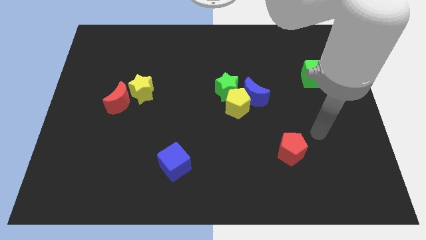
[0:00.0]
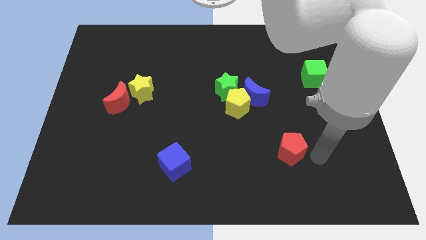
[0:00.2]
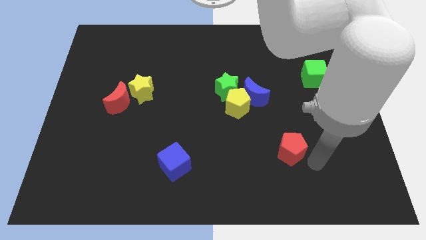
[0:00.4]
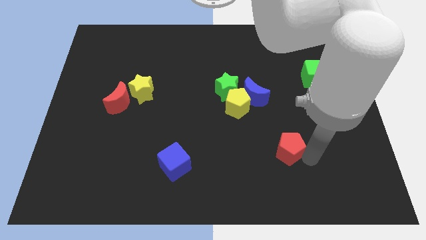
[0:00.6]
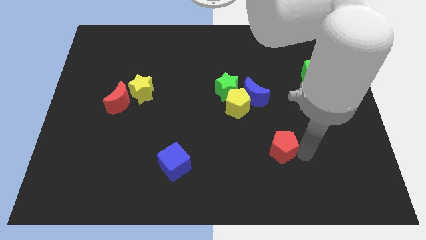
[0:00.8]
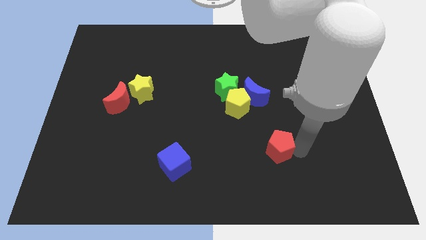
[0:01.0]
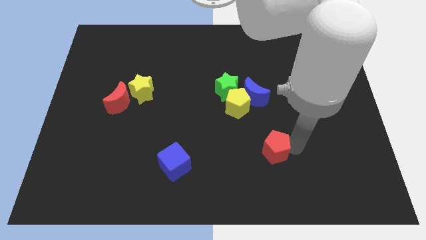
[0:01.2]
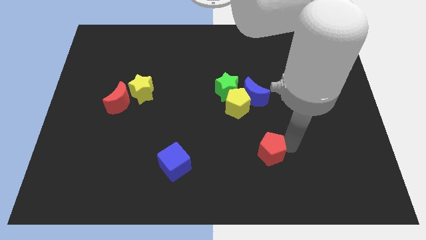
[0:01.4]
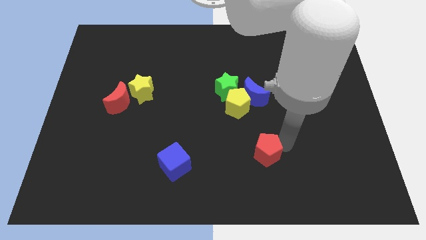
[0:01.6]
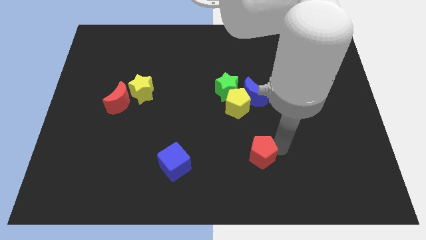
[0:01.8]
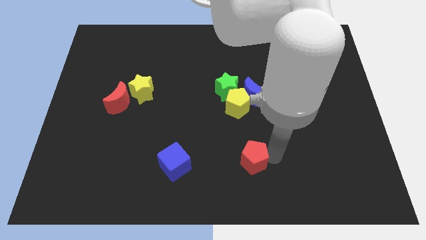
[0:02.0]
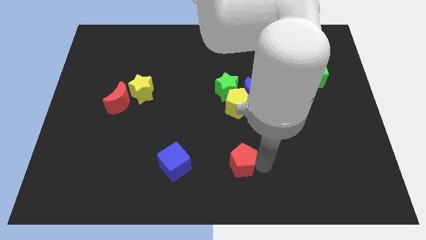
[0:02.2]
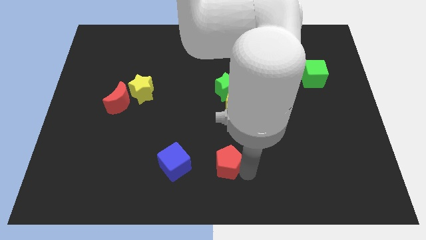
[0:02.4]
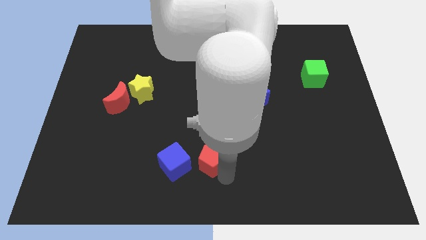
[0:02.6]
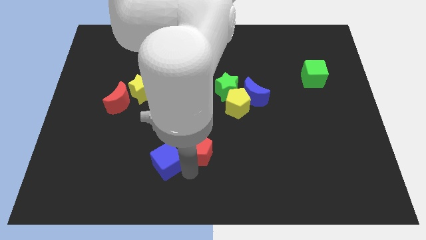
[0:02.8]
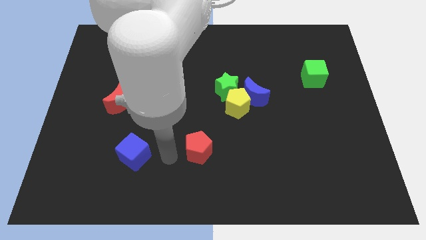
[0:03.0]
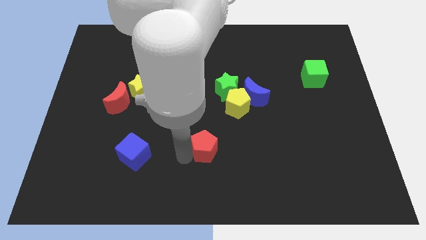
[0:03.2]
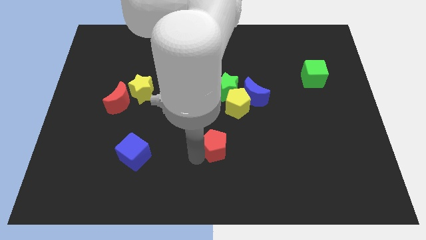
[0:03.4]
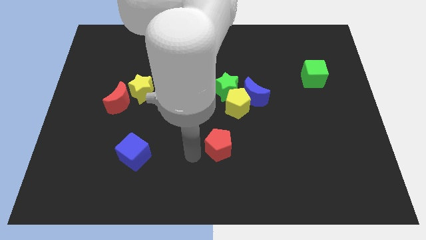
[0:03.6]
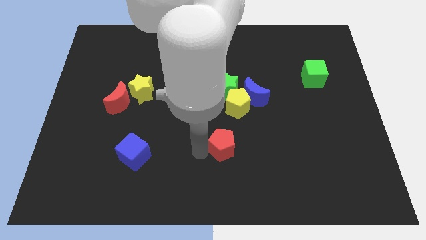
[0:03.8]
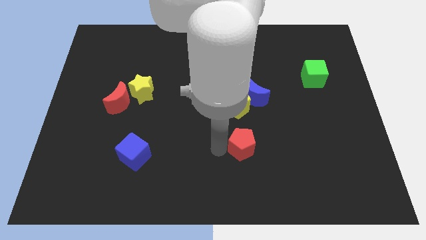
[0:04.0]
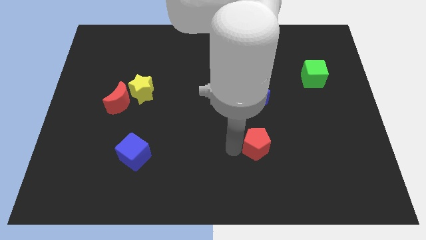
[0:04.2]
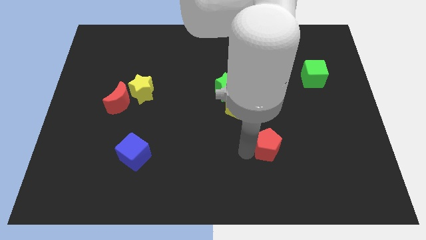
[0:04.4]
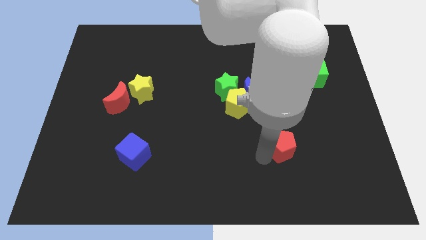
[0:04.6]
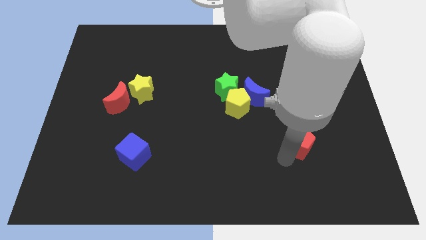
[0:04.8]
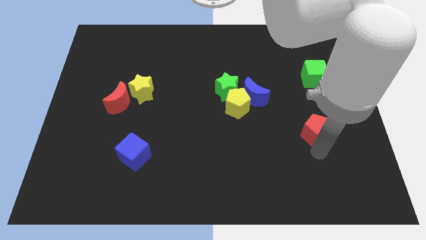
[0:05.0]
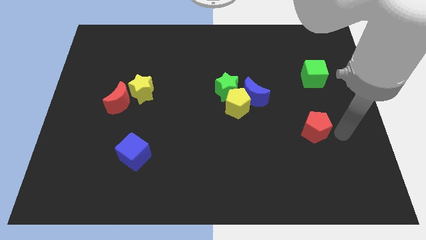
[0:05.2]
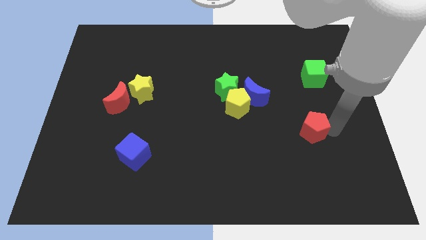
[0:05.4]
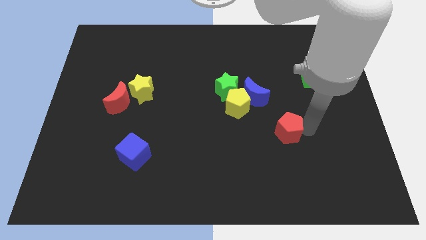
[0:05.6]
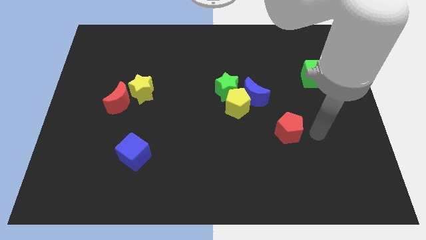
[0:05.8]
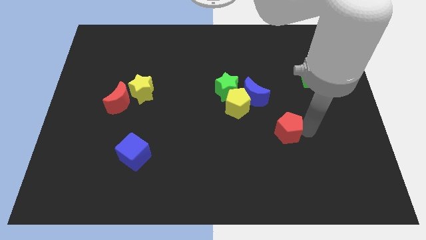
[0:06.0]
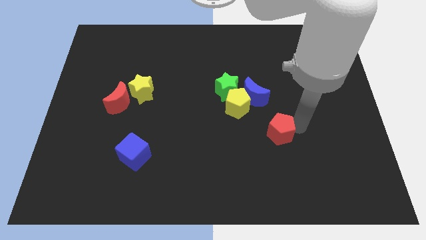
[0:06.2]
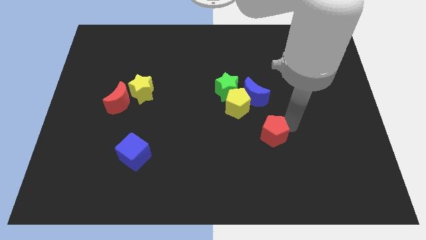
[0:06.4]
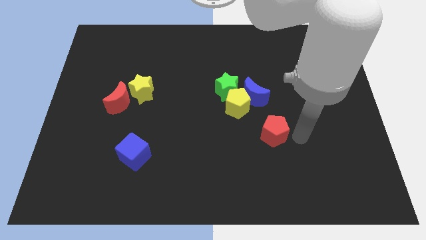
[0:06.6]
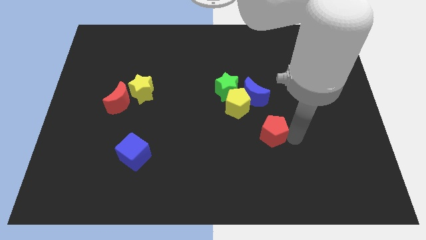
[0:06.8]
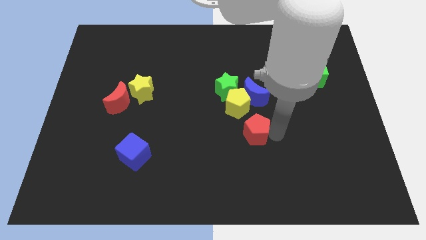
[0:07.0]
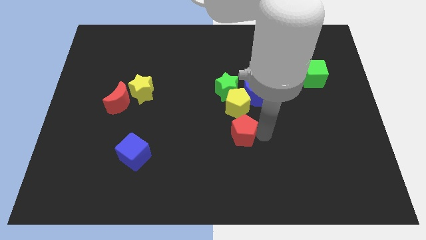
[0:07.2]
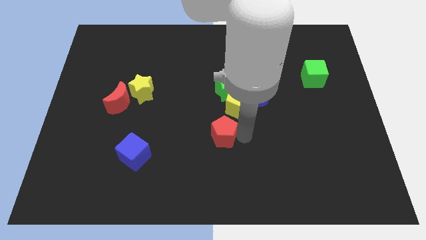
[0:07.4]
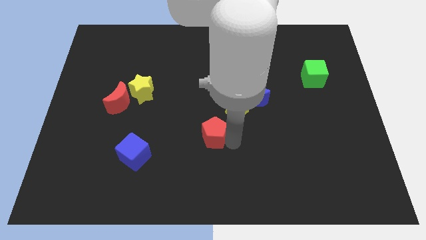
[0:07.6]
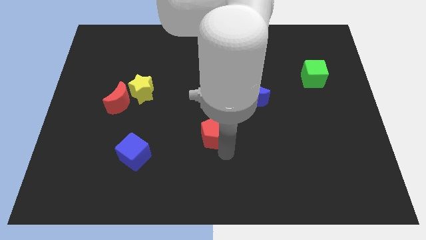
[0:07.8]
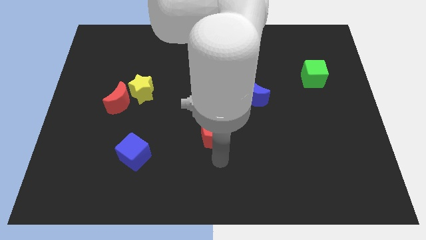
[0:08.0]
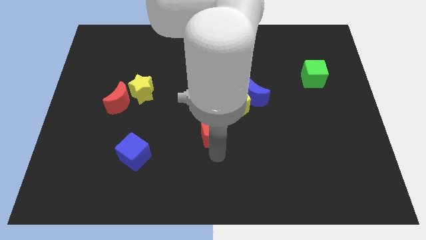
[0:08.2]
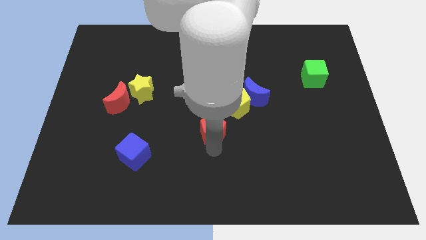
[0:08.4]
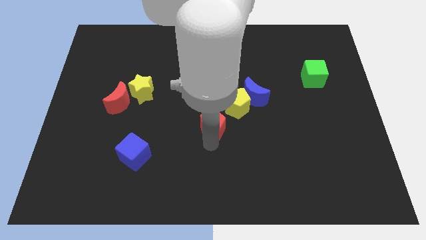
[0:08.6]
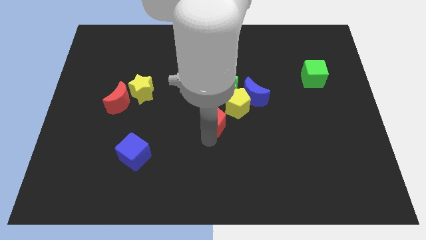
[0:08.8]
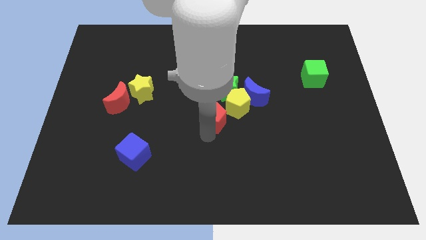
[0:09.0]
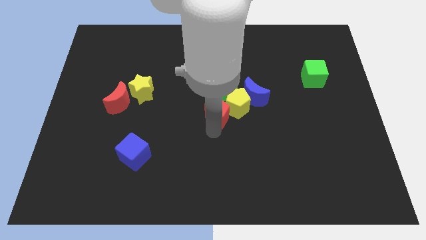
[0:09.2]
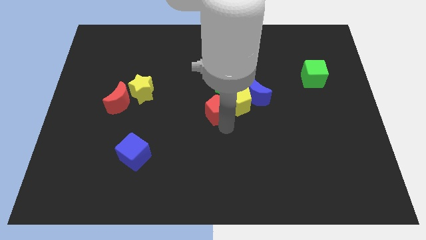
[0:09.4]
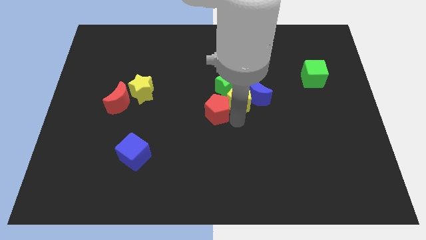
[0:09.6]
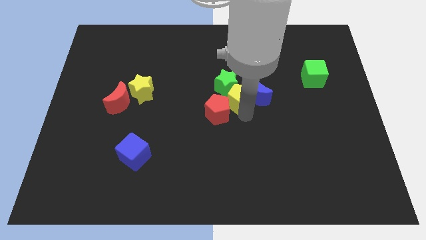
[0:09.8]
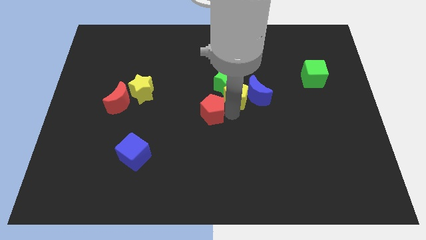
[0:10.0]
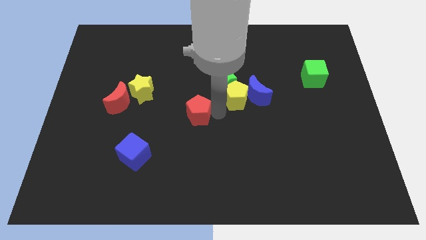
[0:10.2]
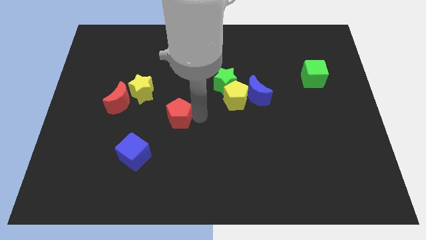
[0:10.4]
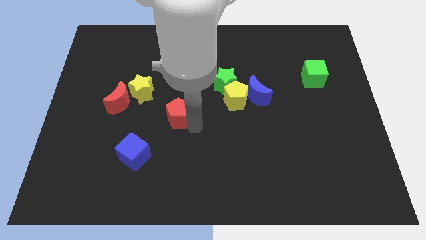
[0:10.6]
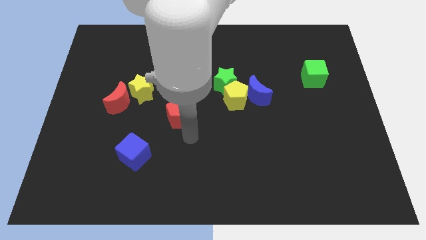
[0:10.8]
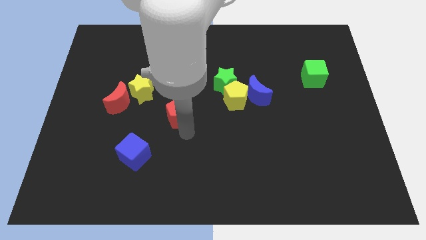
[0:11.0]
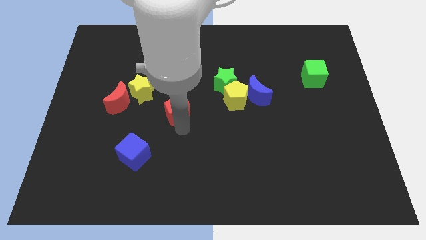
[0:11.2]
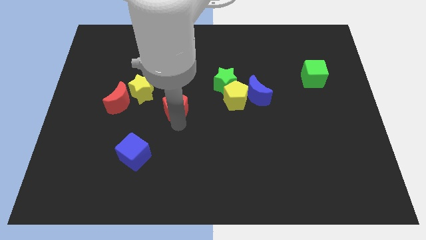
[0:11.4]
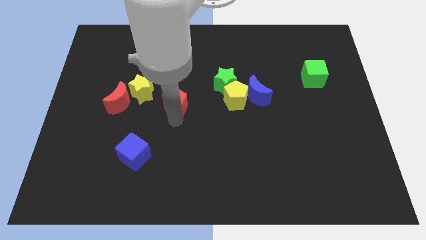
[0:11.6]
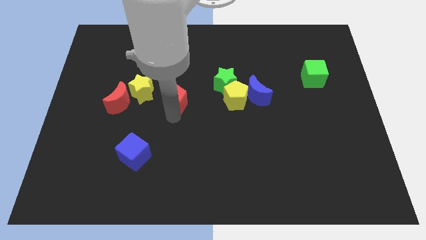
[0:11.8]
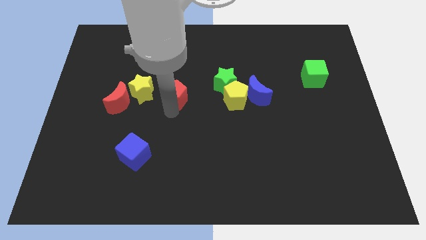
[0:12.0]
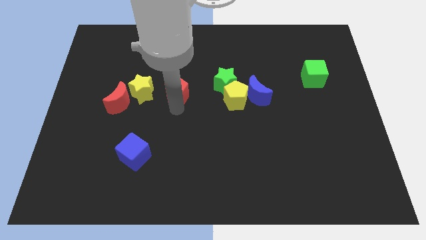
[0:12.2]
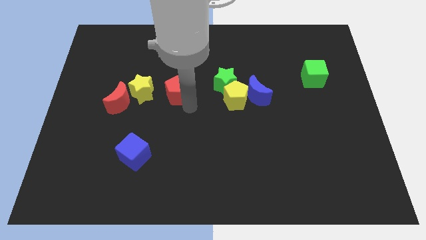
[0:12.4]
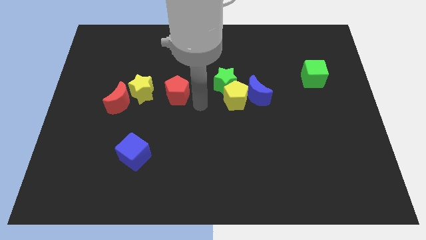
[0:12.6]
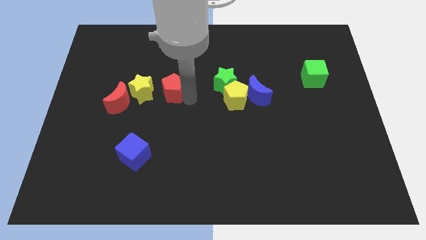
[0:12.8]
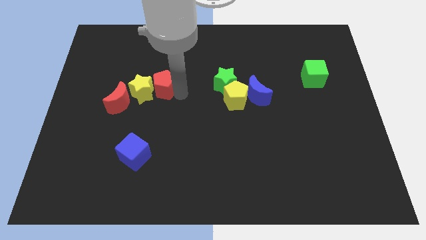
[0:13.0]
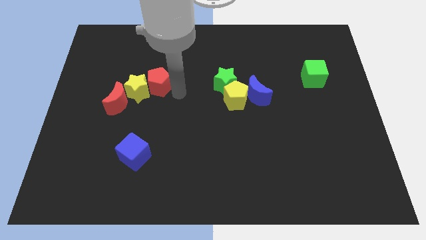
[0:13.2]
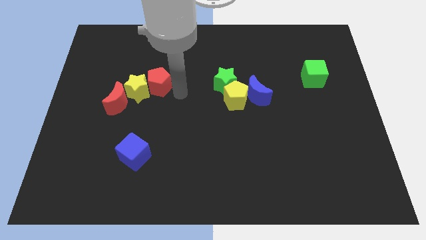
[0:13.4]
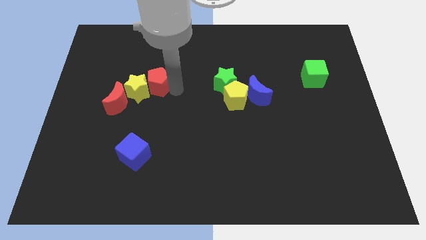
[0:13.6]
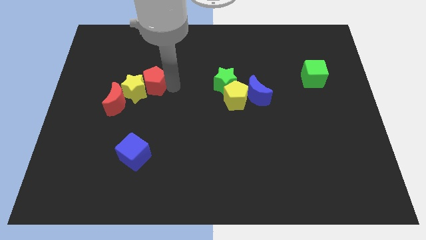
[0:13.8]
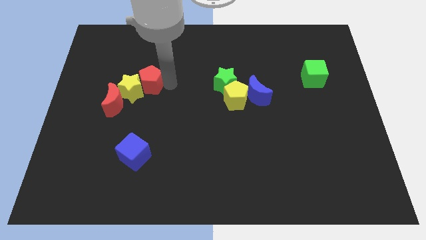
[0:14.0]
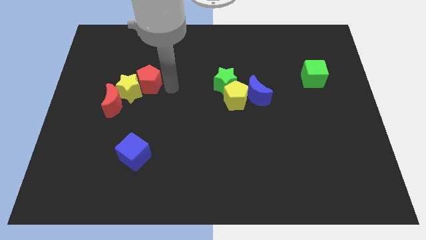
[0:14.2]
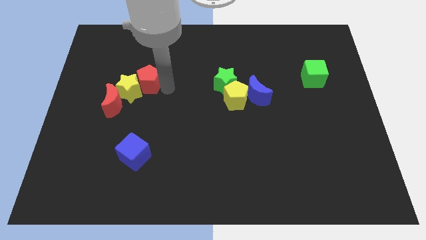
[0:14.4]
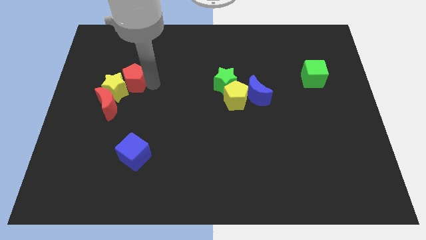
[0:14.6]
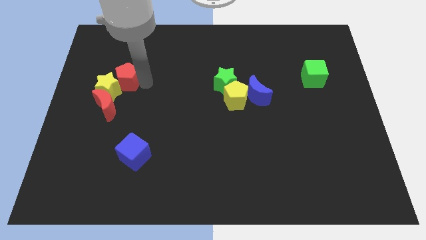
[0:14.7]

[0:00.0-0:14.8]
move the red pentagon to the top of the red moon

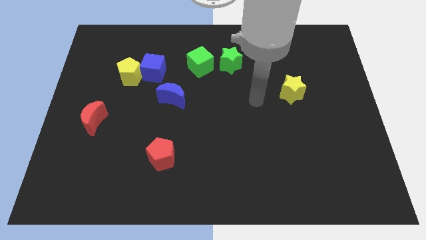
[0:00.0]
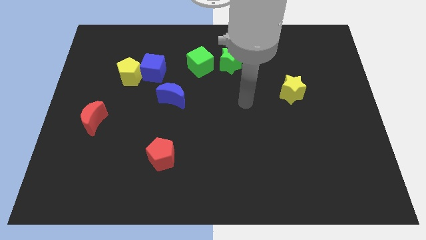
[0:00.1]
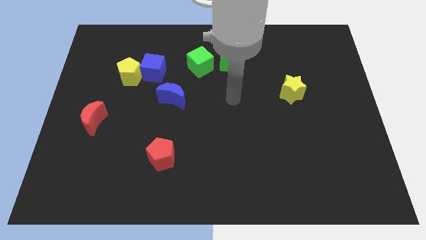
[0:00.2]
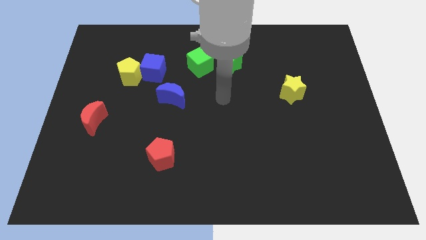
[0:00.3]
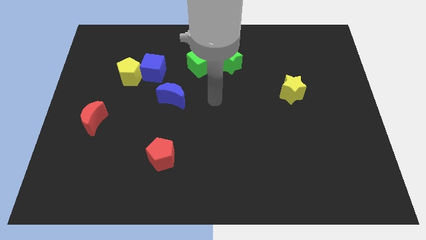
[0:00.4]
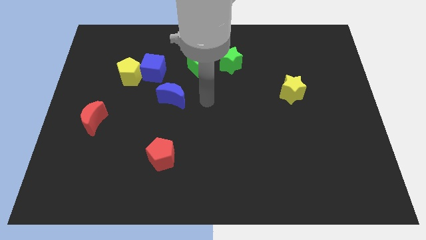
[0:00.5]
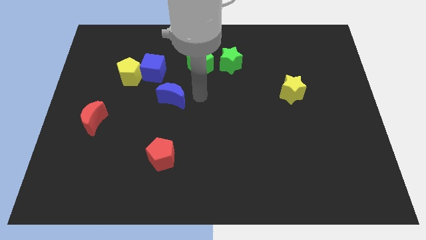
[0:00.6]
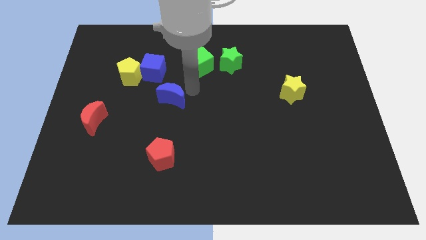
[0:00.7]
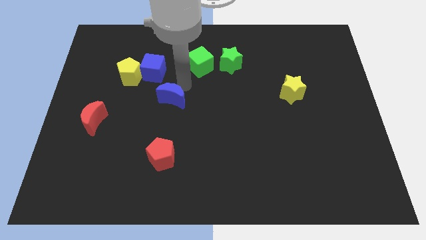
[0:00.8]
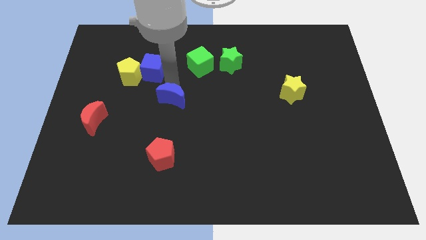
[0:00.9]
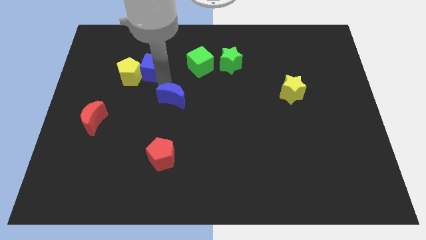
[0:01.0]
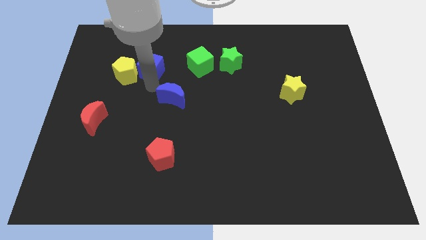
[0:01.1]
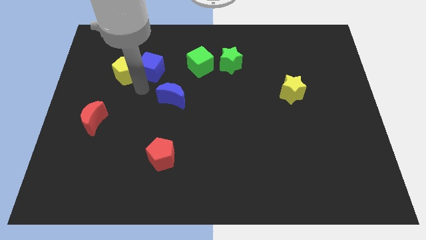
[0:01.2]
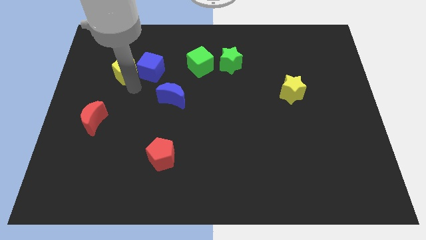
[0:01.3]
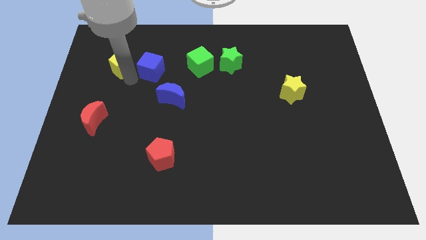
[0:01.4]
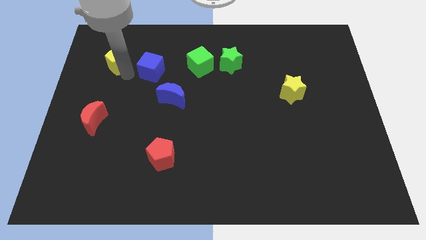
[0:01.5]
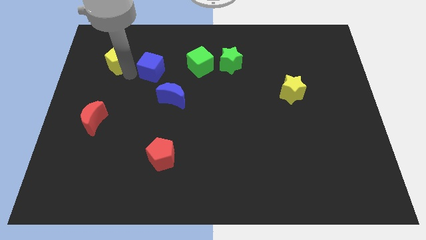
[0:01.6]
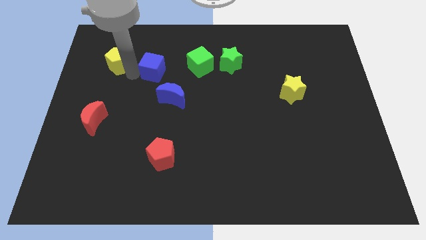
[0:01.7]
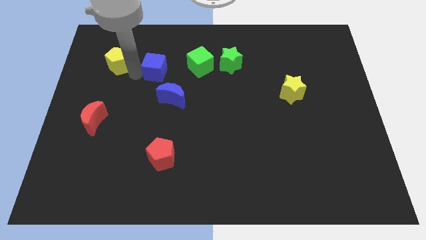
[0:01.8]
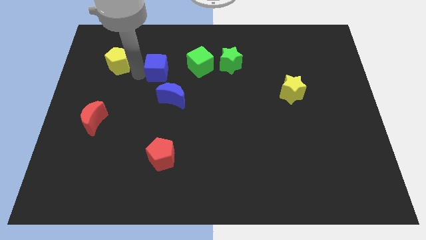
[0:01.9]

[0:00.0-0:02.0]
push the blue cube to the top side of the blue moon
